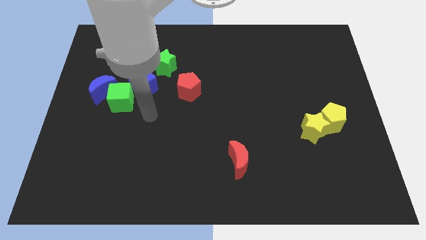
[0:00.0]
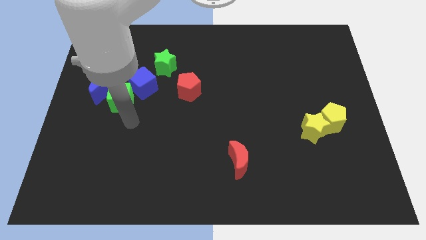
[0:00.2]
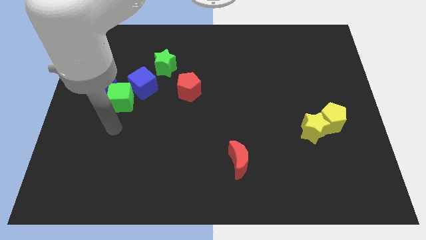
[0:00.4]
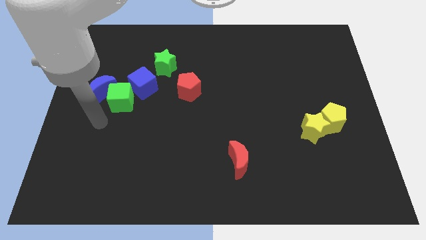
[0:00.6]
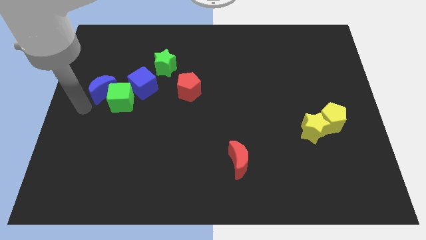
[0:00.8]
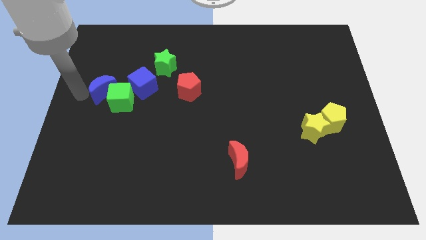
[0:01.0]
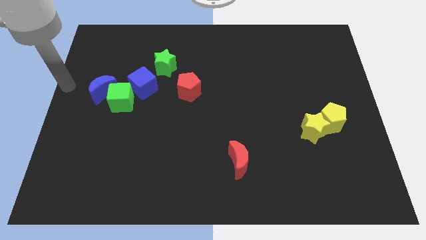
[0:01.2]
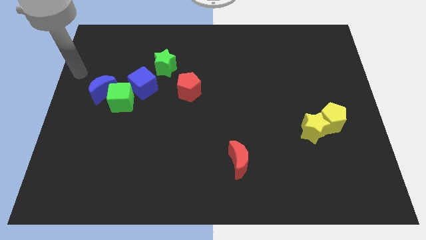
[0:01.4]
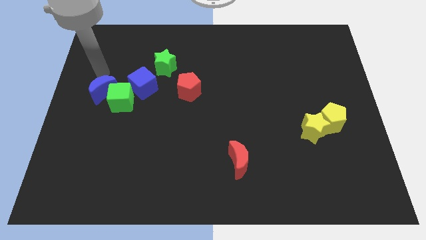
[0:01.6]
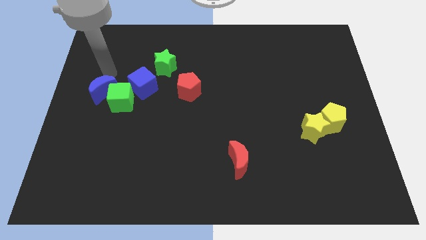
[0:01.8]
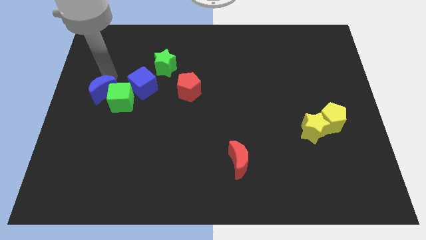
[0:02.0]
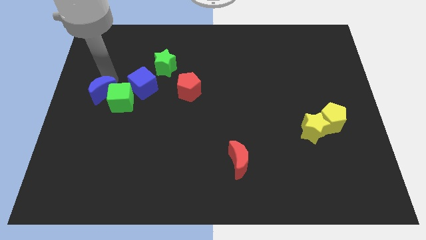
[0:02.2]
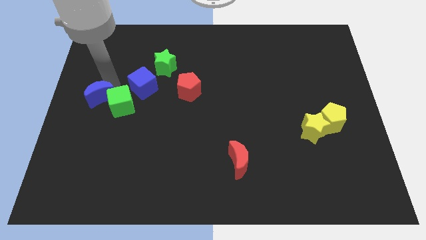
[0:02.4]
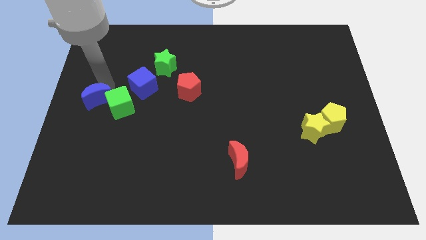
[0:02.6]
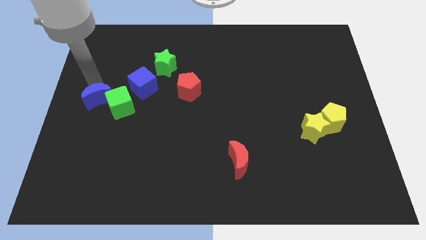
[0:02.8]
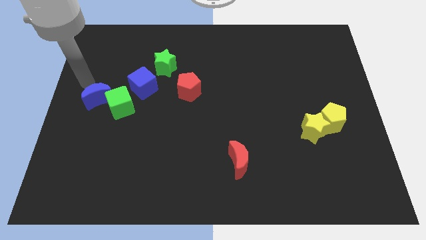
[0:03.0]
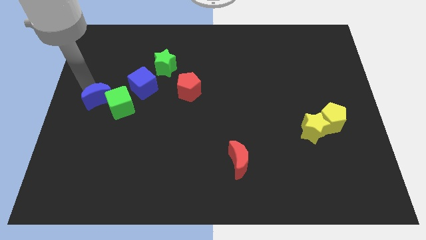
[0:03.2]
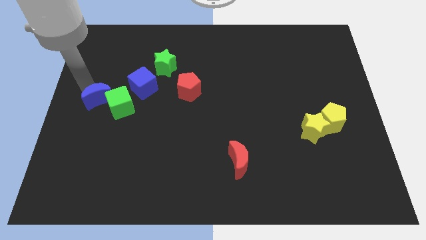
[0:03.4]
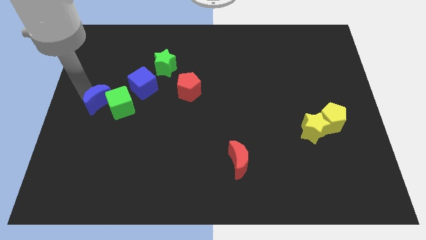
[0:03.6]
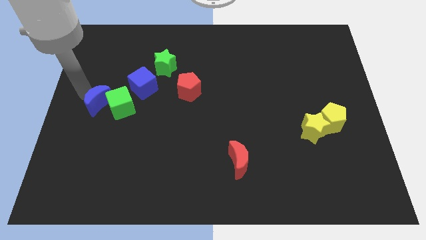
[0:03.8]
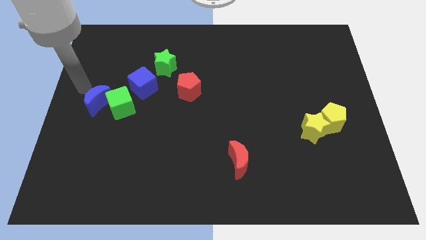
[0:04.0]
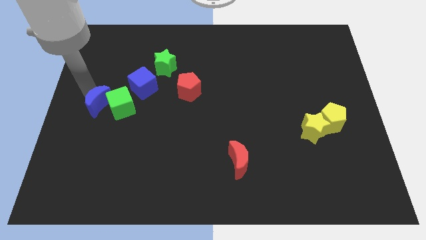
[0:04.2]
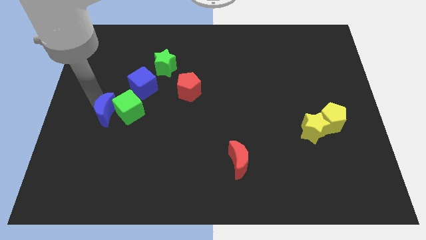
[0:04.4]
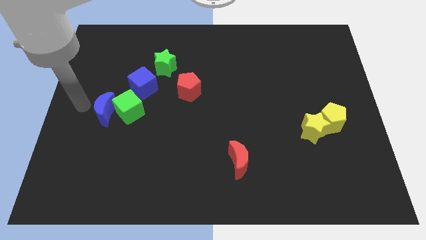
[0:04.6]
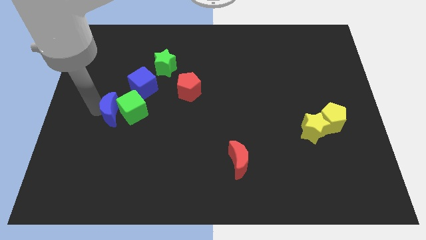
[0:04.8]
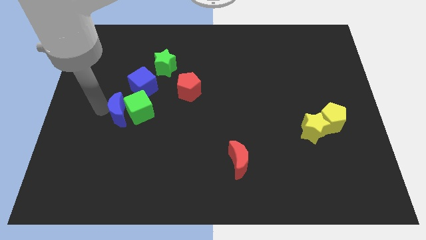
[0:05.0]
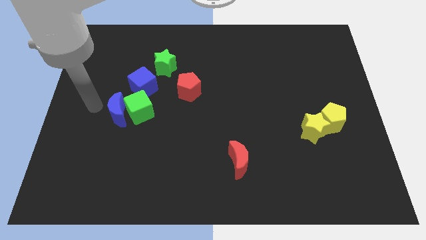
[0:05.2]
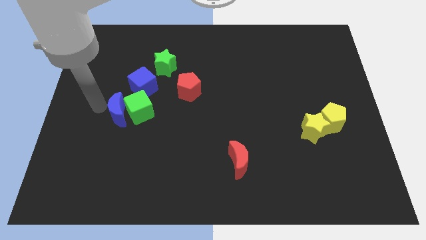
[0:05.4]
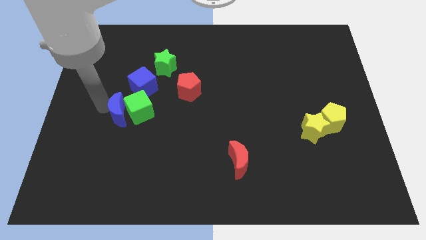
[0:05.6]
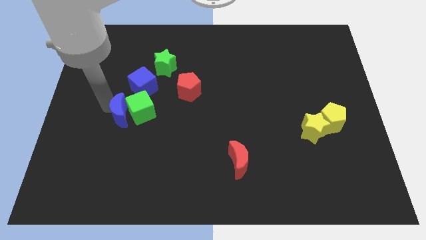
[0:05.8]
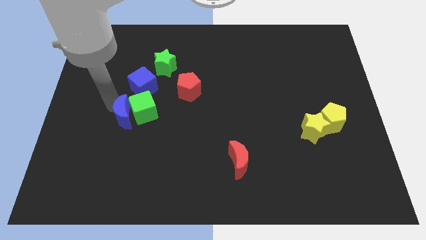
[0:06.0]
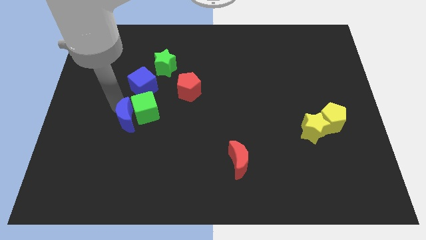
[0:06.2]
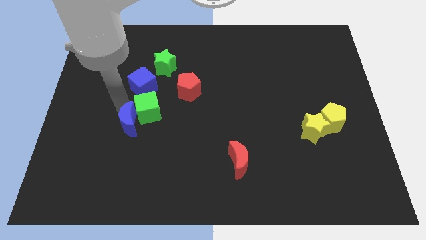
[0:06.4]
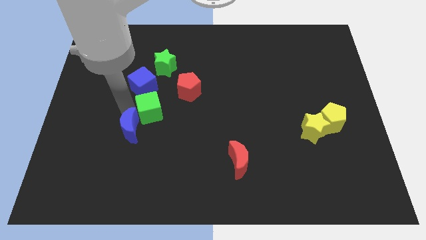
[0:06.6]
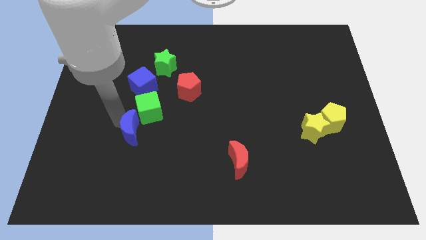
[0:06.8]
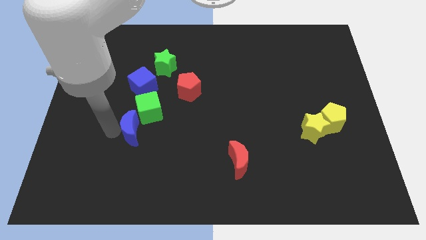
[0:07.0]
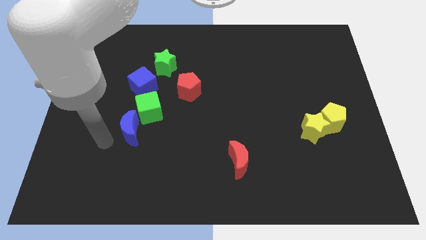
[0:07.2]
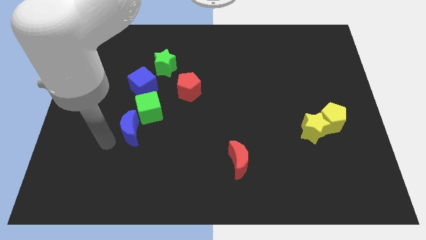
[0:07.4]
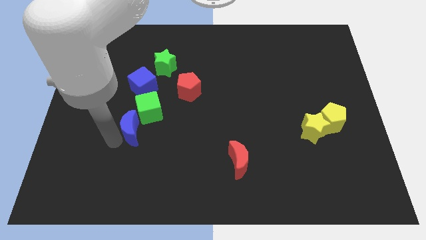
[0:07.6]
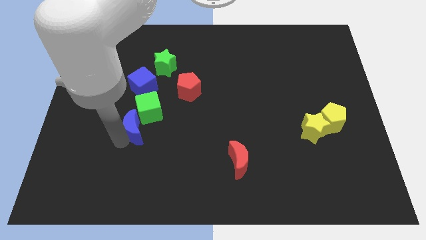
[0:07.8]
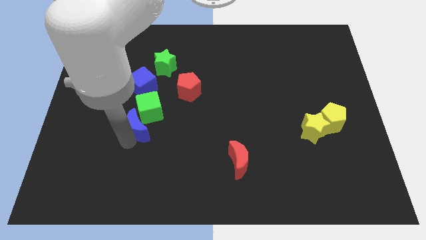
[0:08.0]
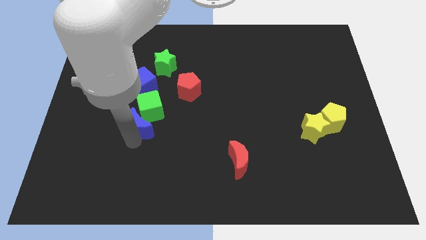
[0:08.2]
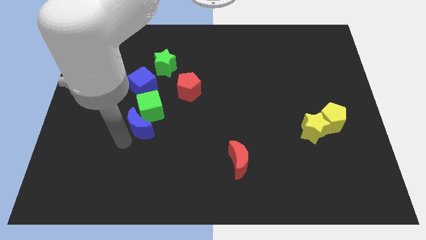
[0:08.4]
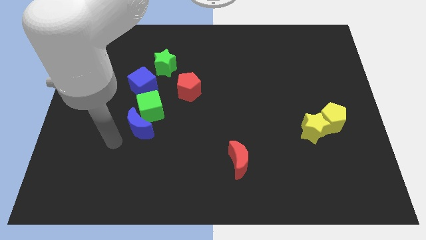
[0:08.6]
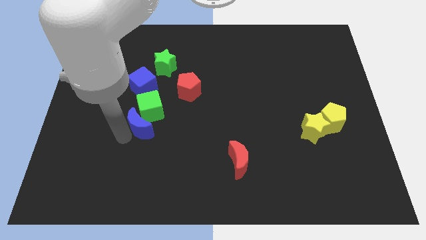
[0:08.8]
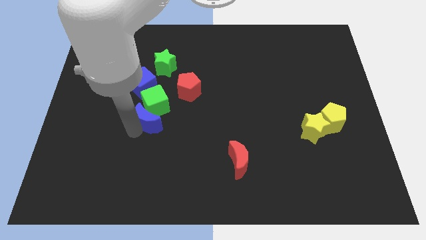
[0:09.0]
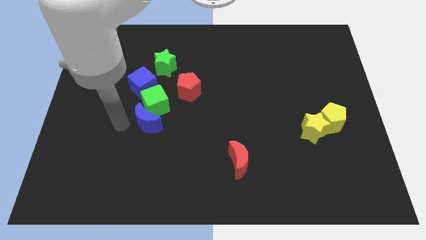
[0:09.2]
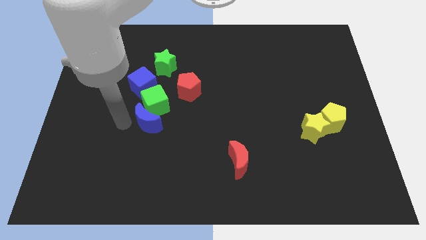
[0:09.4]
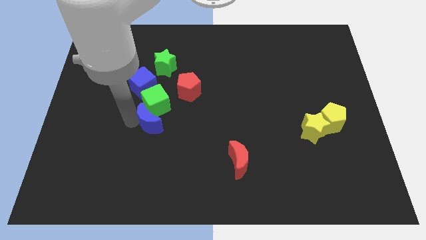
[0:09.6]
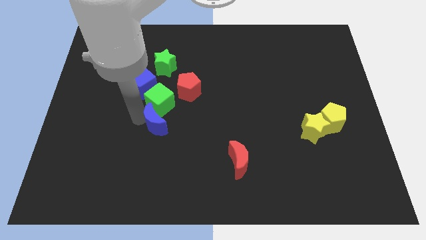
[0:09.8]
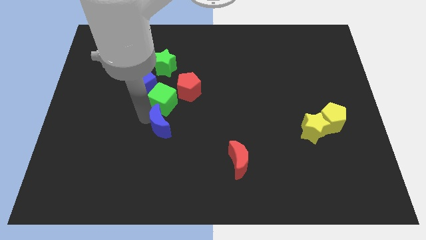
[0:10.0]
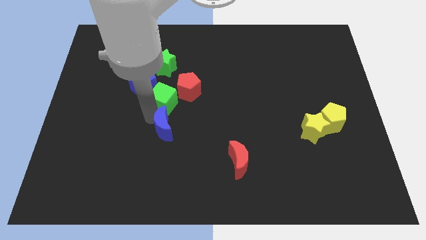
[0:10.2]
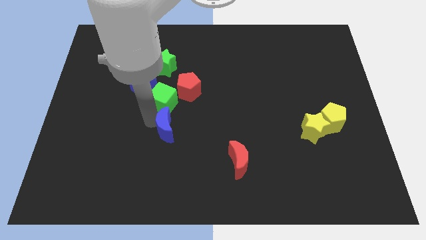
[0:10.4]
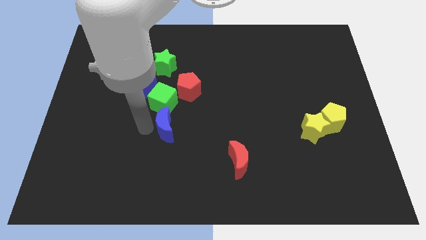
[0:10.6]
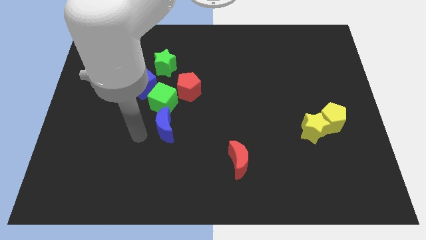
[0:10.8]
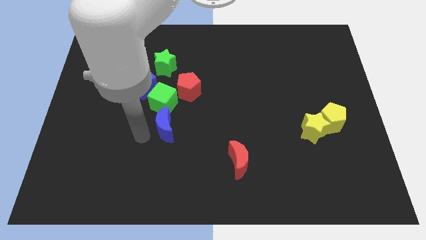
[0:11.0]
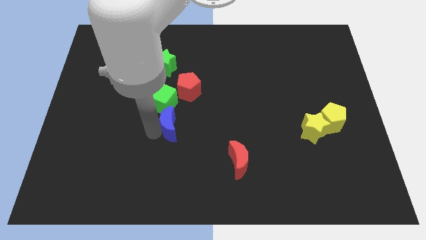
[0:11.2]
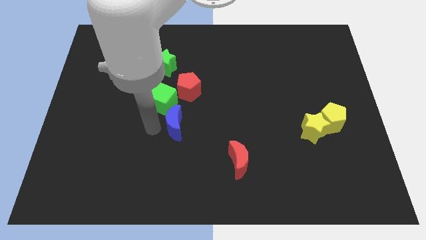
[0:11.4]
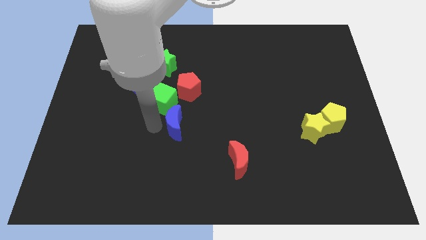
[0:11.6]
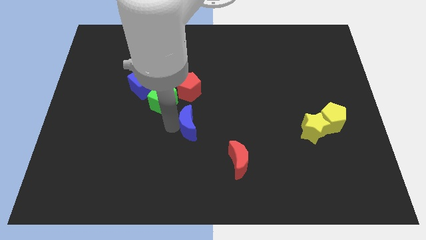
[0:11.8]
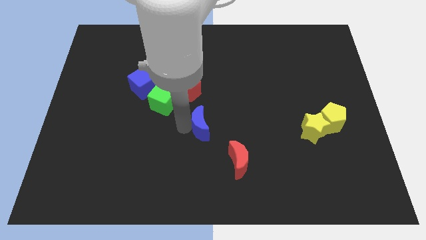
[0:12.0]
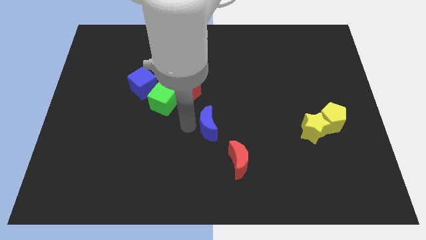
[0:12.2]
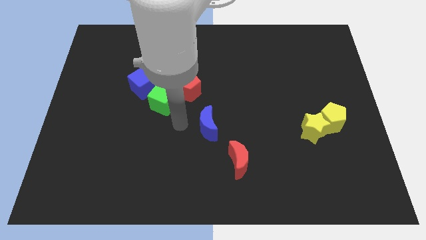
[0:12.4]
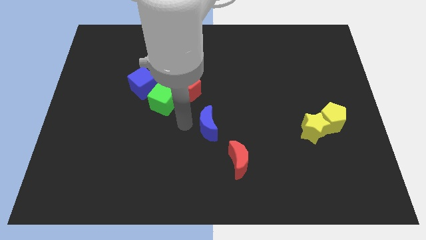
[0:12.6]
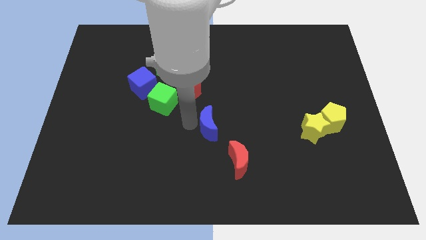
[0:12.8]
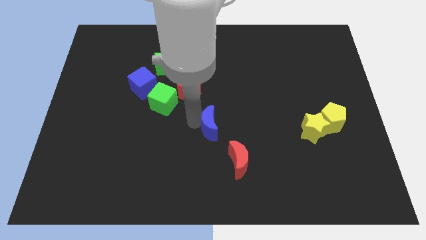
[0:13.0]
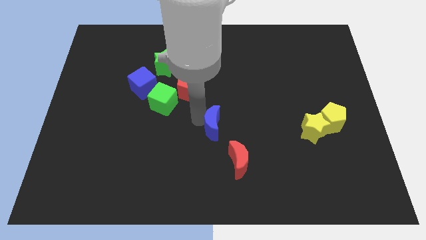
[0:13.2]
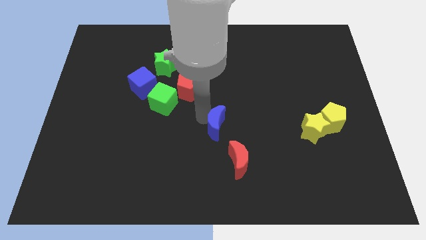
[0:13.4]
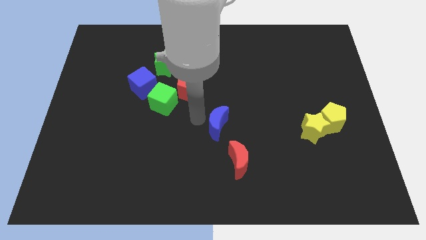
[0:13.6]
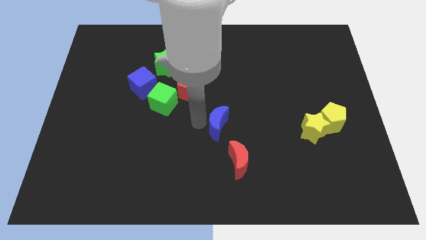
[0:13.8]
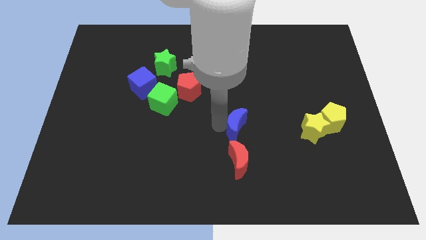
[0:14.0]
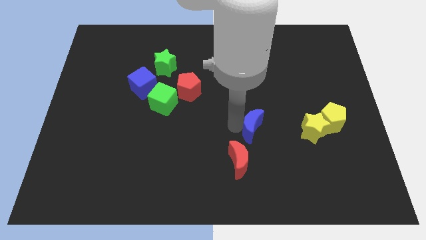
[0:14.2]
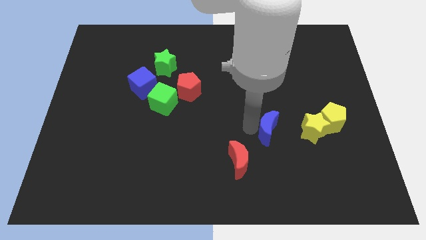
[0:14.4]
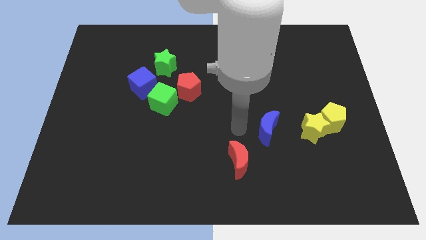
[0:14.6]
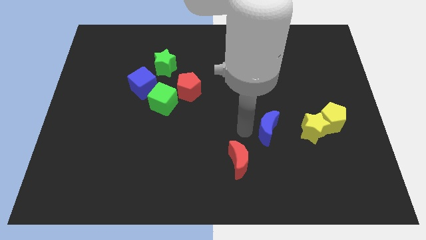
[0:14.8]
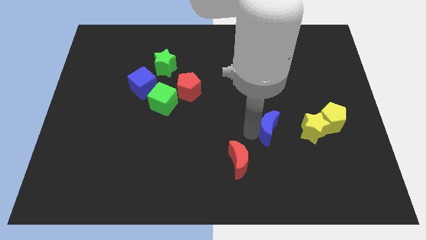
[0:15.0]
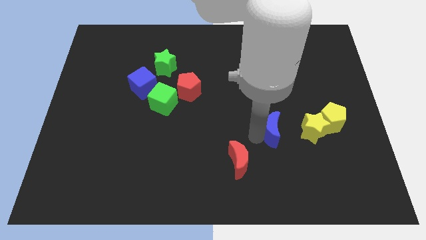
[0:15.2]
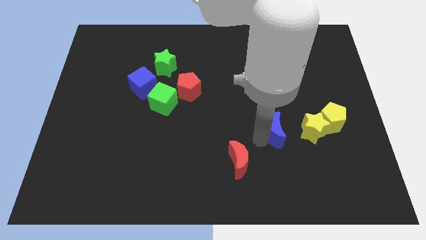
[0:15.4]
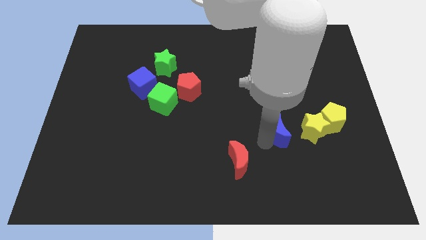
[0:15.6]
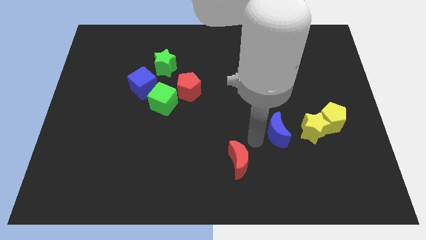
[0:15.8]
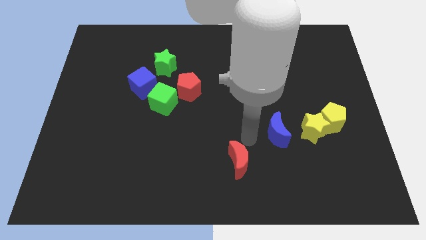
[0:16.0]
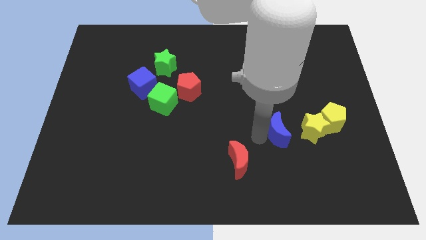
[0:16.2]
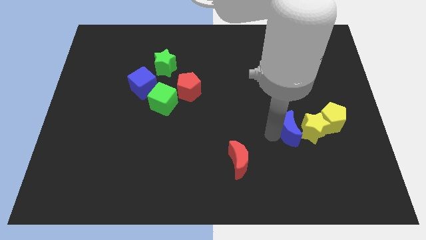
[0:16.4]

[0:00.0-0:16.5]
slide the blue moon close to the yellow star
